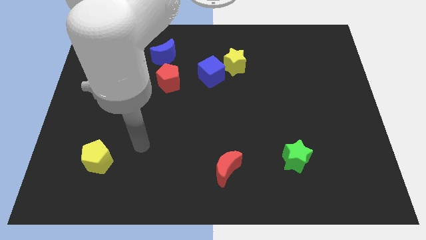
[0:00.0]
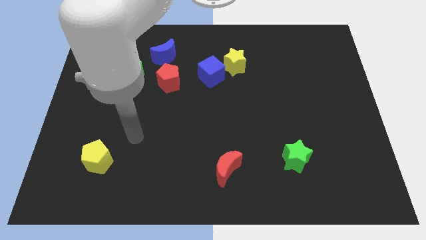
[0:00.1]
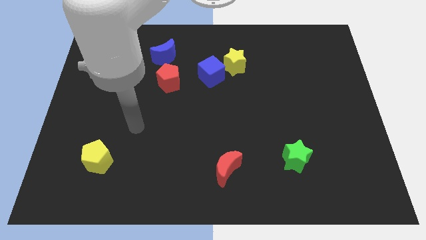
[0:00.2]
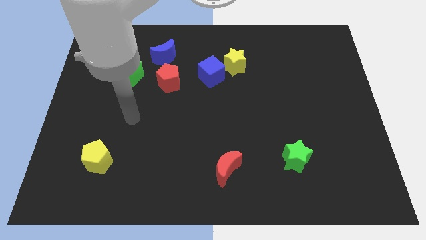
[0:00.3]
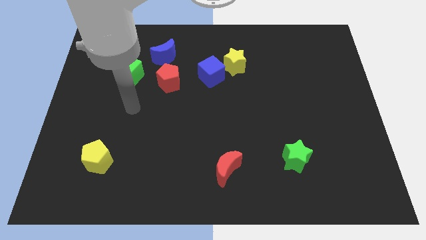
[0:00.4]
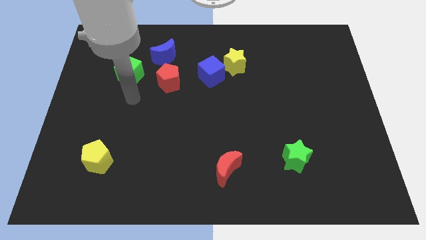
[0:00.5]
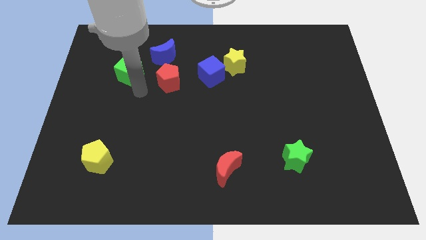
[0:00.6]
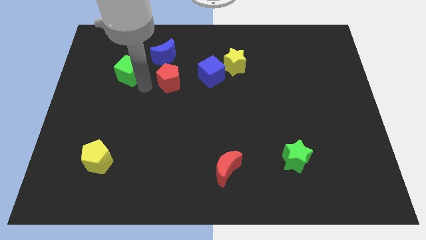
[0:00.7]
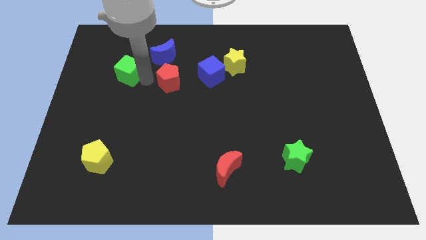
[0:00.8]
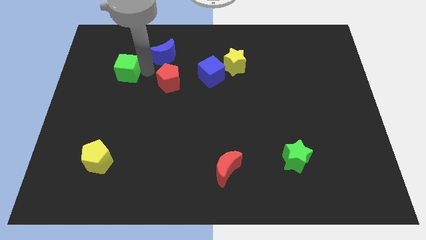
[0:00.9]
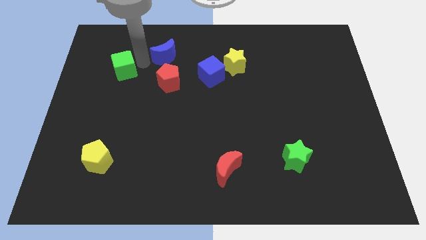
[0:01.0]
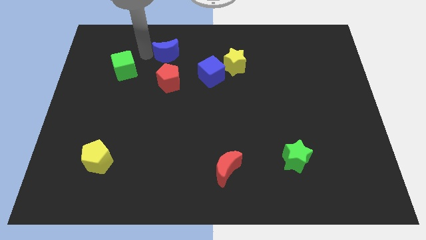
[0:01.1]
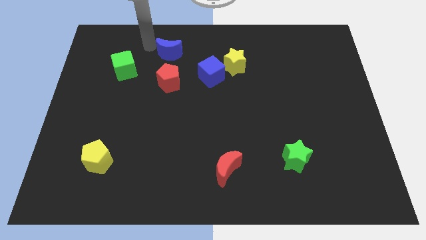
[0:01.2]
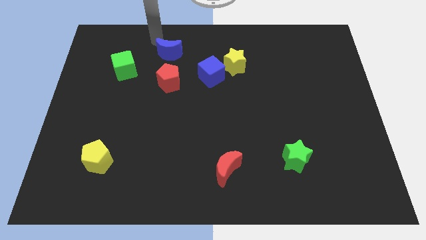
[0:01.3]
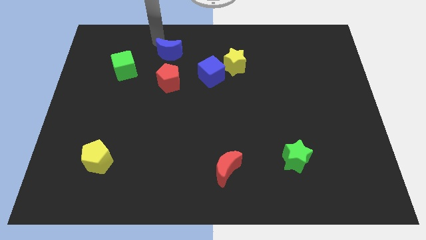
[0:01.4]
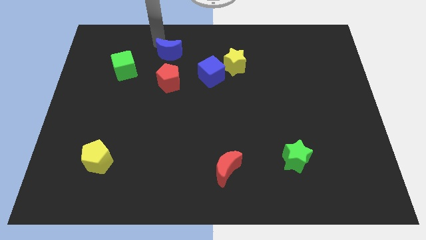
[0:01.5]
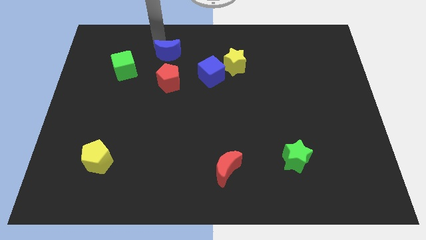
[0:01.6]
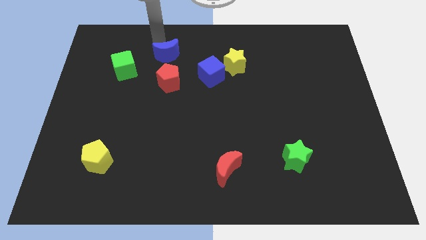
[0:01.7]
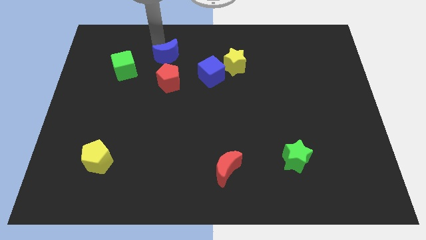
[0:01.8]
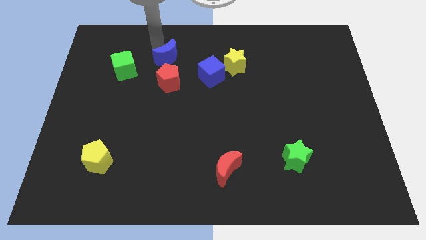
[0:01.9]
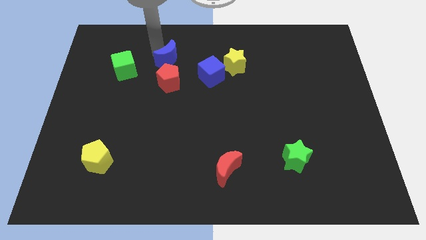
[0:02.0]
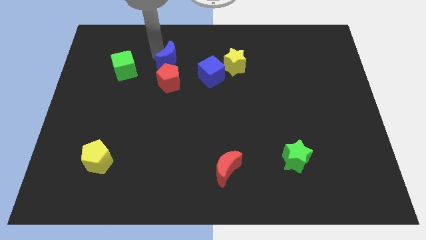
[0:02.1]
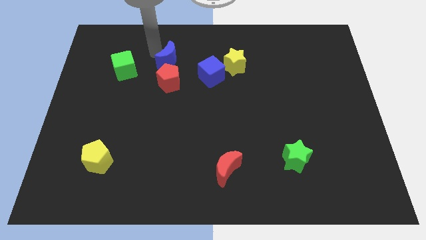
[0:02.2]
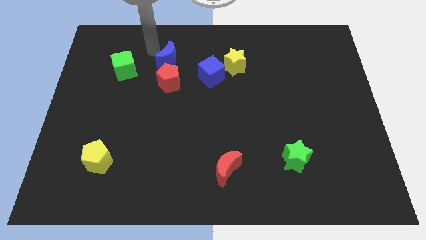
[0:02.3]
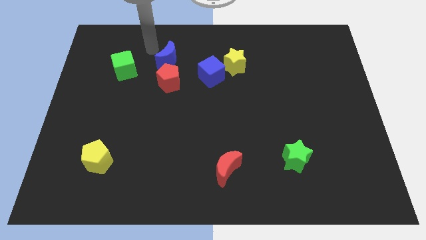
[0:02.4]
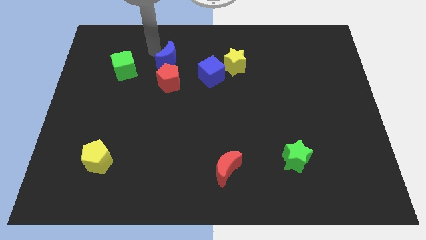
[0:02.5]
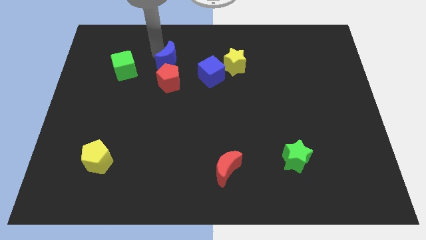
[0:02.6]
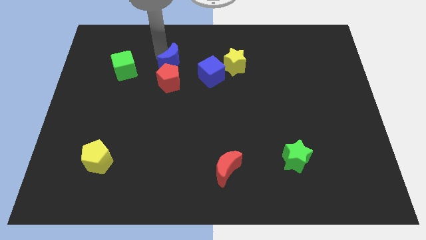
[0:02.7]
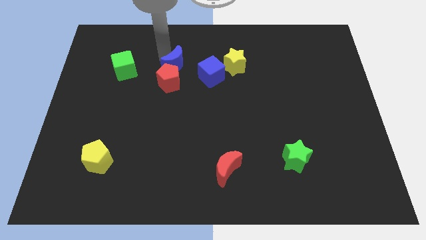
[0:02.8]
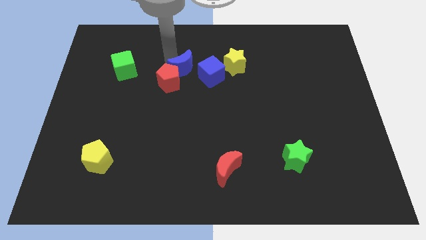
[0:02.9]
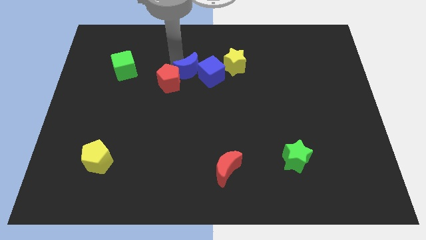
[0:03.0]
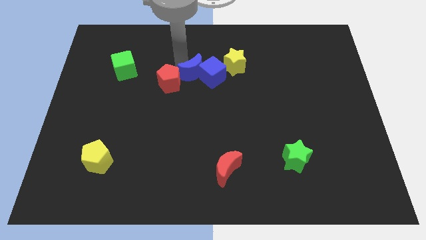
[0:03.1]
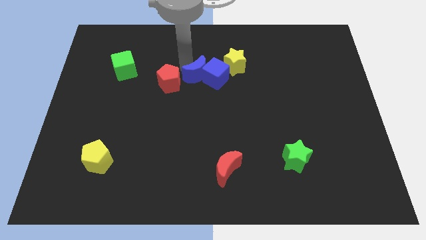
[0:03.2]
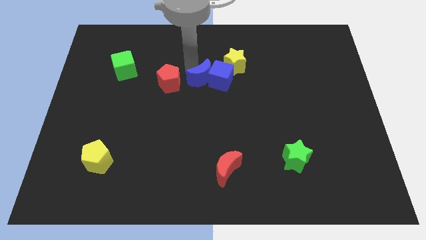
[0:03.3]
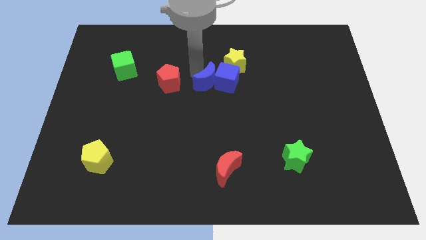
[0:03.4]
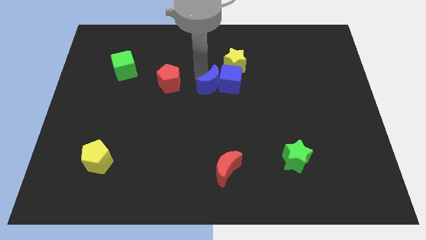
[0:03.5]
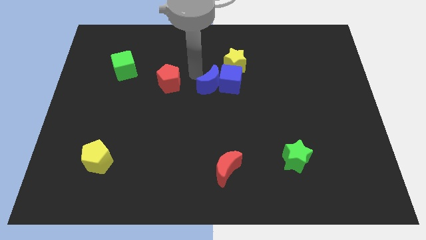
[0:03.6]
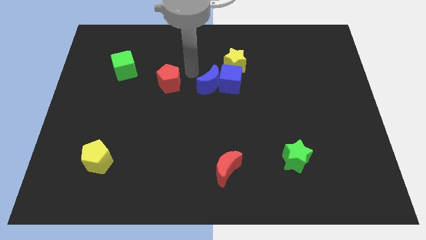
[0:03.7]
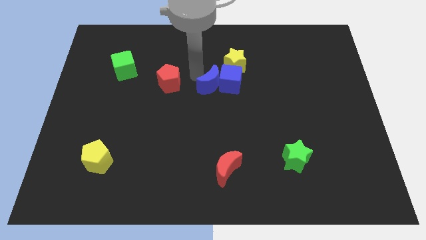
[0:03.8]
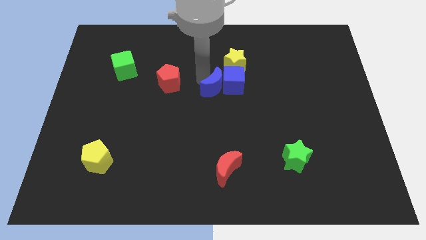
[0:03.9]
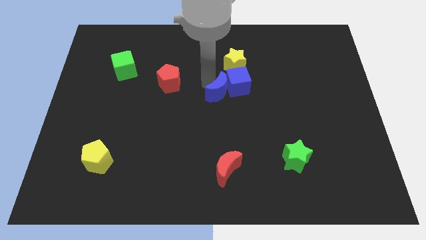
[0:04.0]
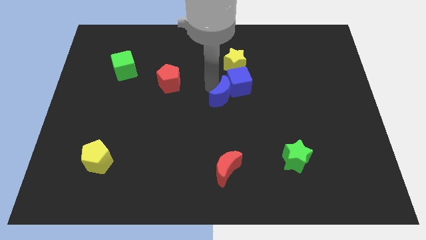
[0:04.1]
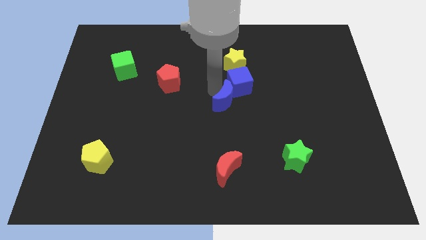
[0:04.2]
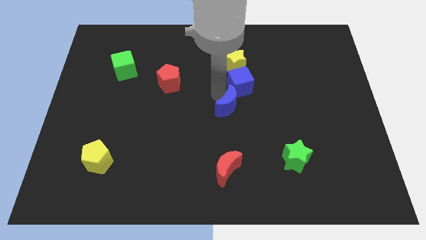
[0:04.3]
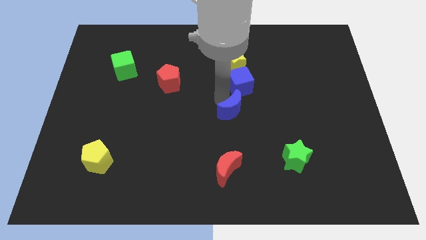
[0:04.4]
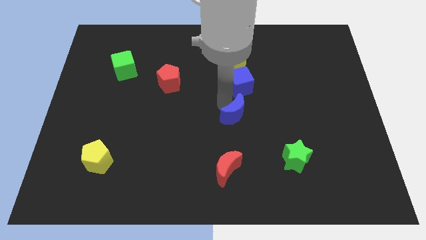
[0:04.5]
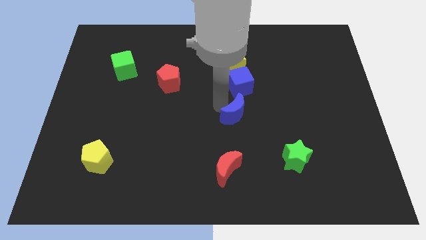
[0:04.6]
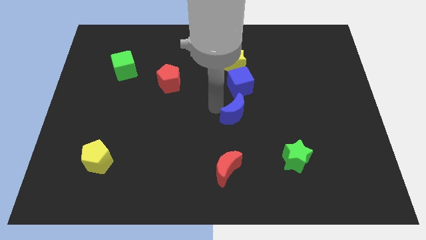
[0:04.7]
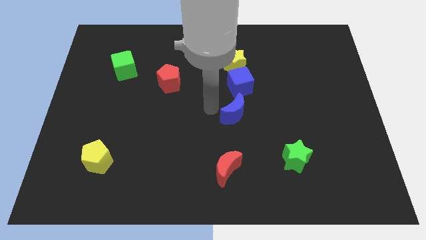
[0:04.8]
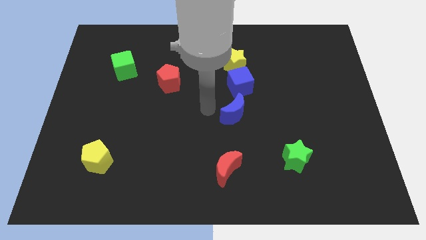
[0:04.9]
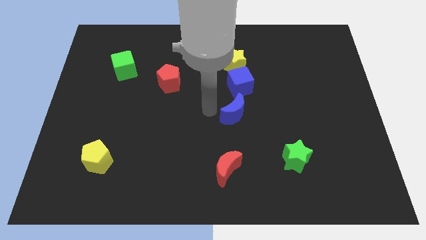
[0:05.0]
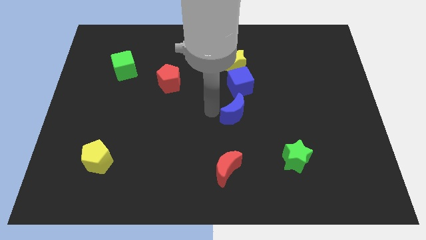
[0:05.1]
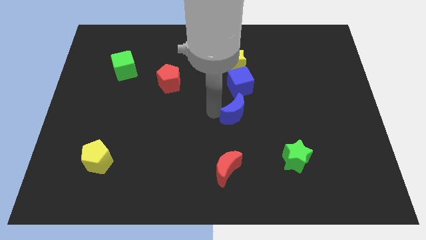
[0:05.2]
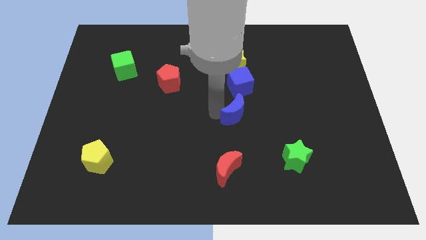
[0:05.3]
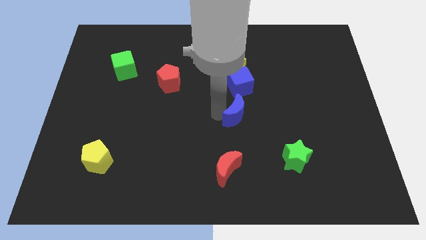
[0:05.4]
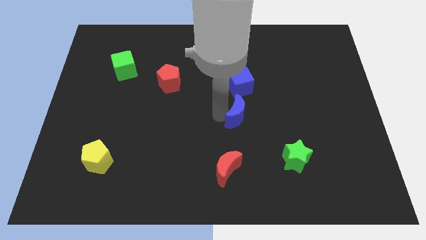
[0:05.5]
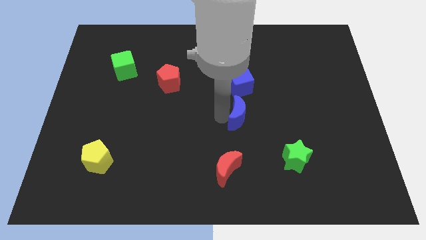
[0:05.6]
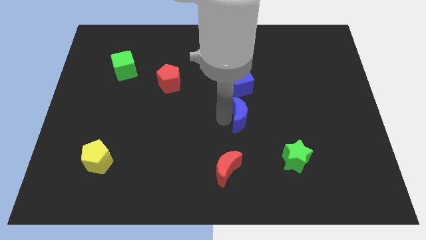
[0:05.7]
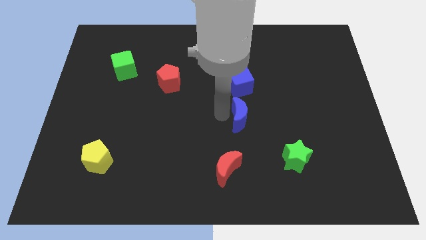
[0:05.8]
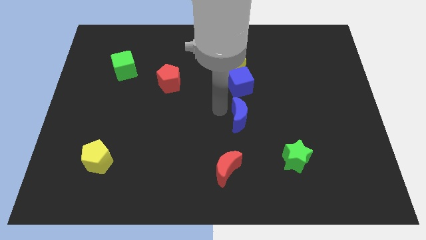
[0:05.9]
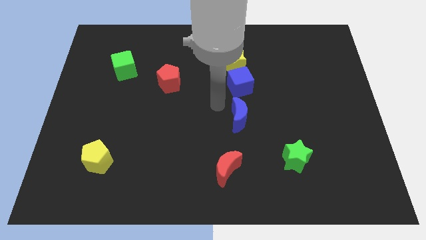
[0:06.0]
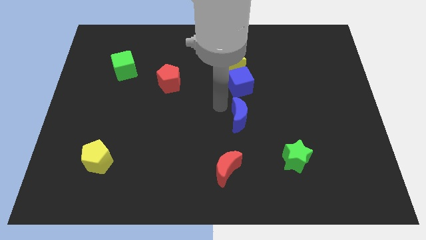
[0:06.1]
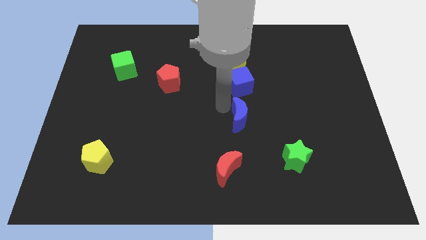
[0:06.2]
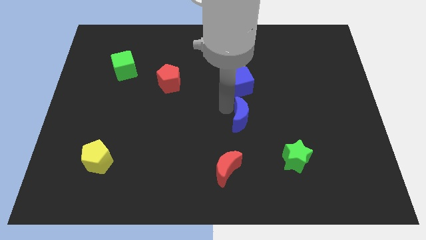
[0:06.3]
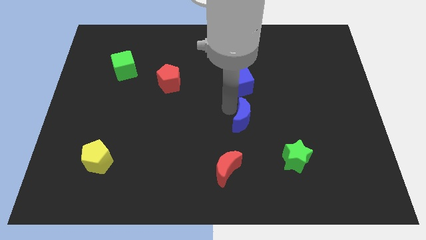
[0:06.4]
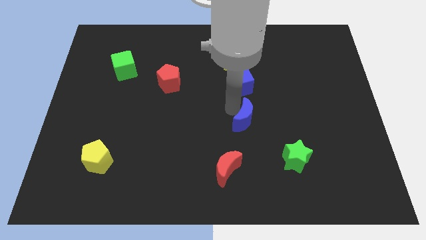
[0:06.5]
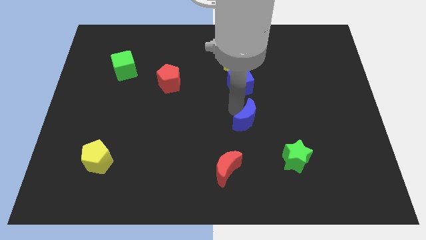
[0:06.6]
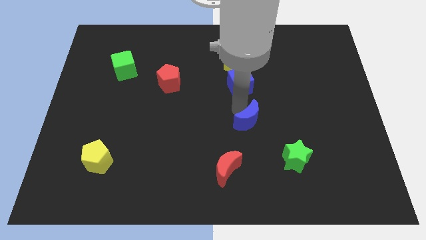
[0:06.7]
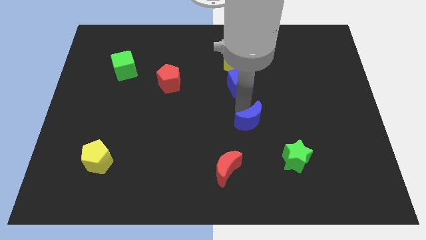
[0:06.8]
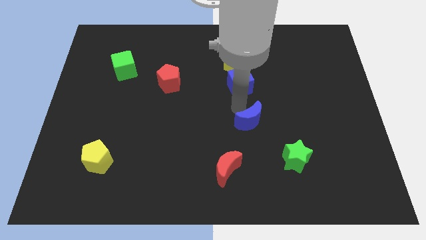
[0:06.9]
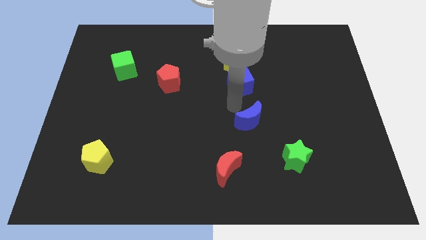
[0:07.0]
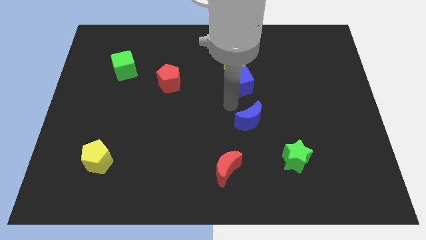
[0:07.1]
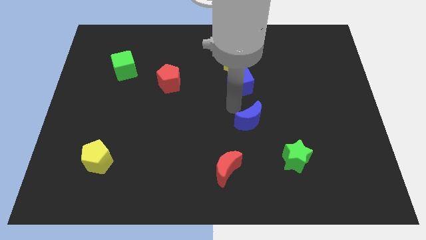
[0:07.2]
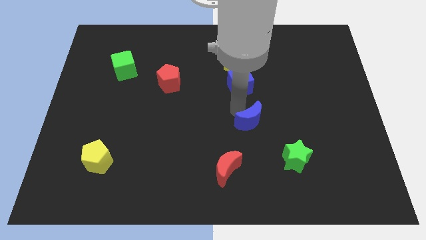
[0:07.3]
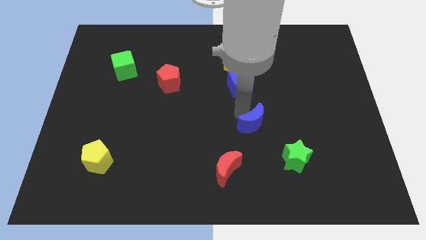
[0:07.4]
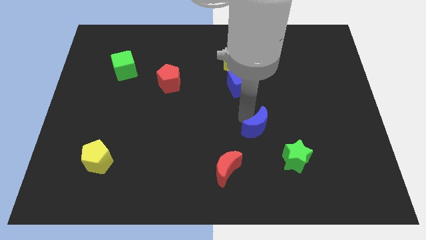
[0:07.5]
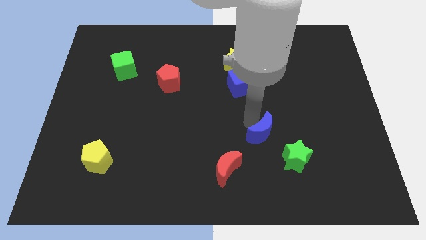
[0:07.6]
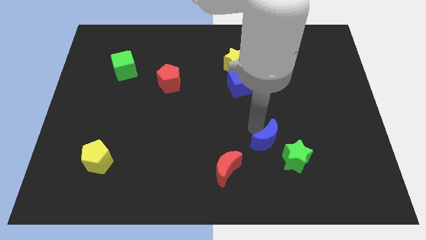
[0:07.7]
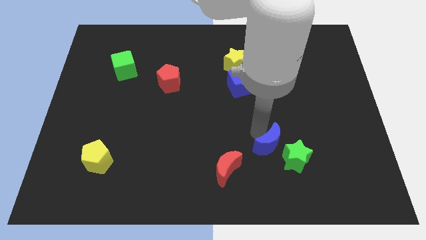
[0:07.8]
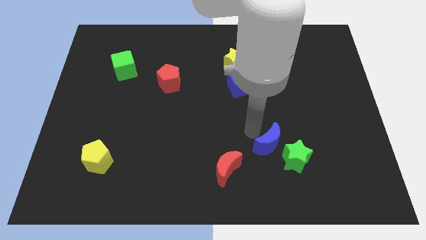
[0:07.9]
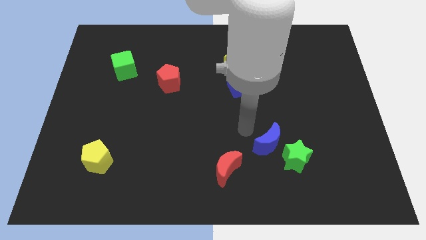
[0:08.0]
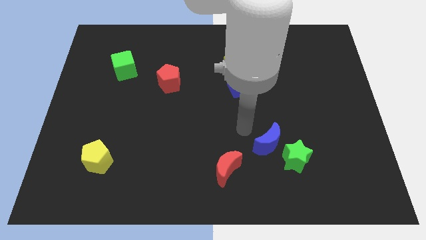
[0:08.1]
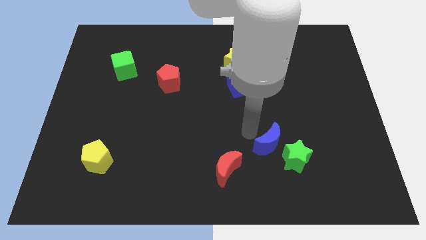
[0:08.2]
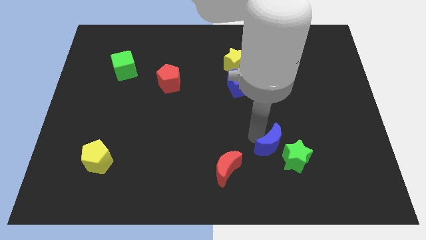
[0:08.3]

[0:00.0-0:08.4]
move the blue moon towards the green star
